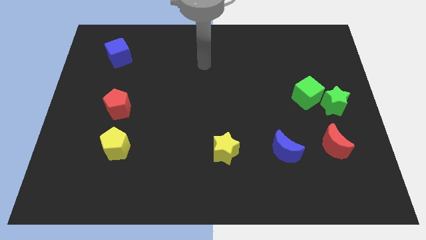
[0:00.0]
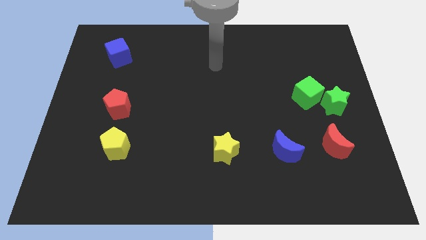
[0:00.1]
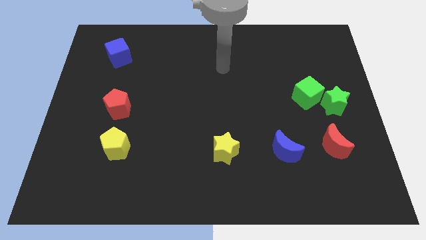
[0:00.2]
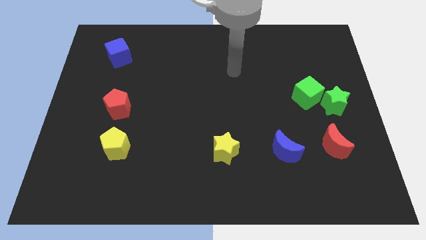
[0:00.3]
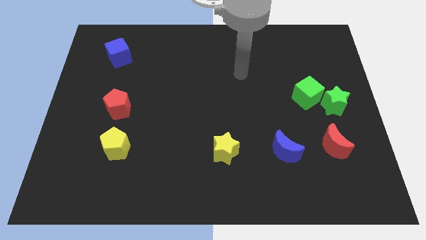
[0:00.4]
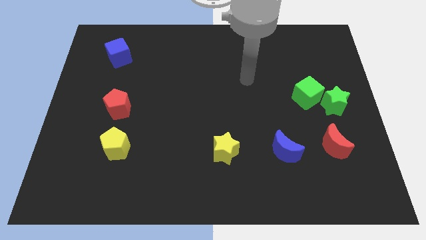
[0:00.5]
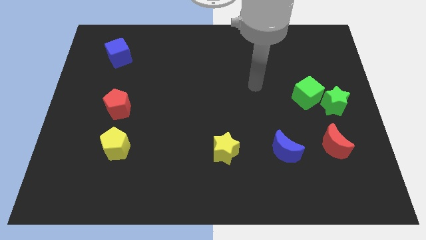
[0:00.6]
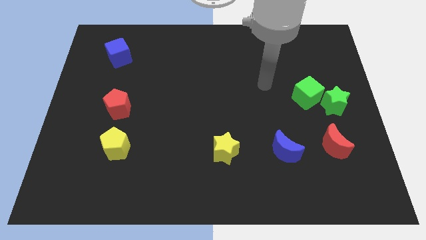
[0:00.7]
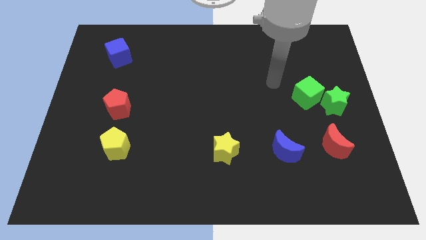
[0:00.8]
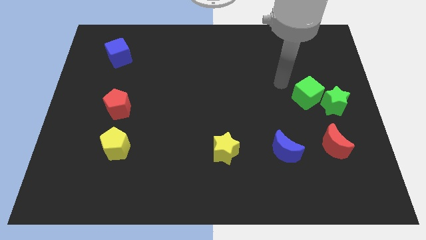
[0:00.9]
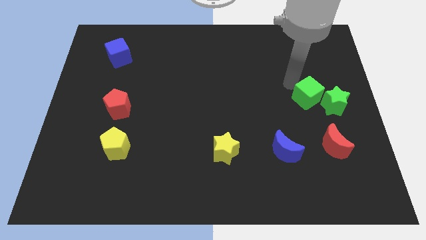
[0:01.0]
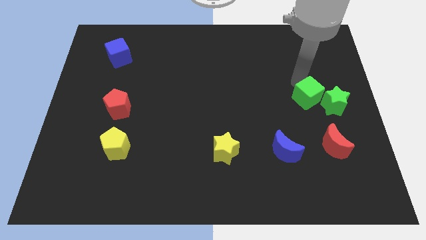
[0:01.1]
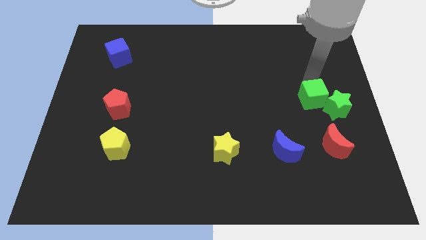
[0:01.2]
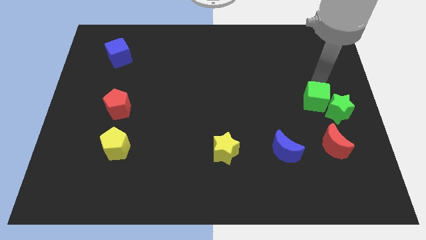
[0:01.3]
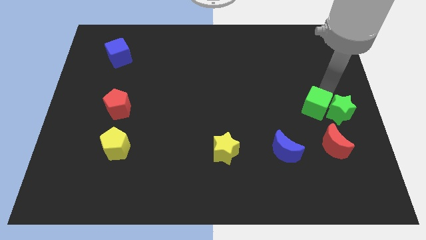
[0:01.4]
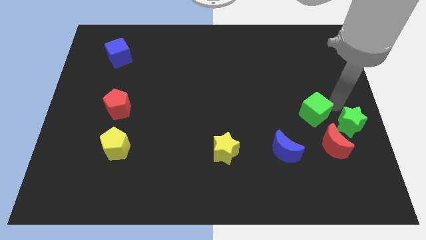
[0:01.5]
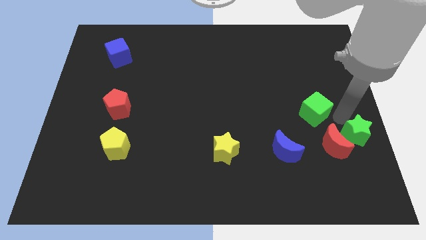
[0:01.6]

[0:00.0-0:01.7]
move the green cube away from the green star

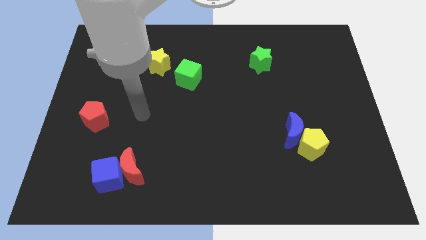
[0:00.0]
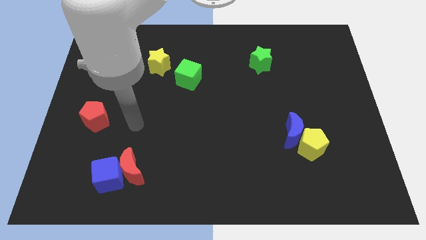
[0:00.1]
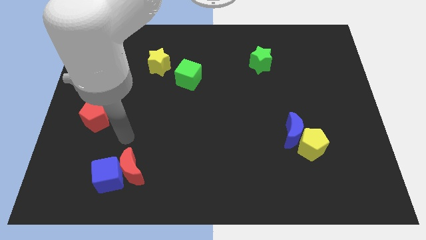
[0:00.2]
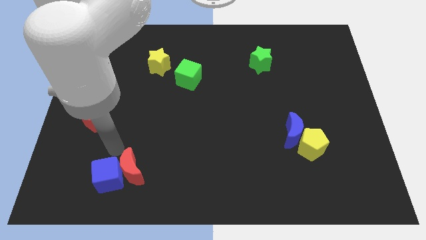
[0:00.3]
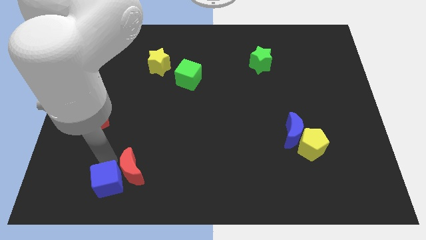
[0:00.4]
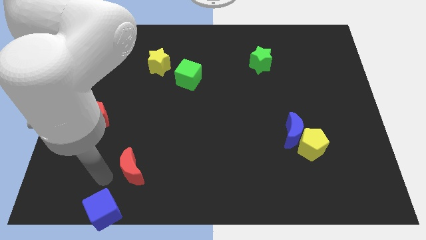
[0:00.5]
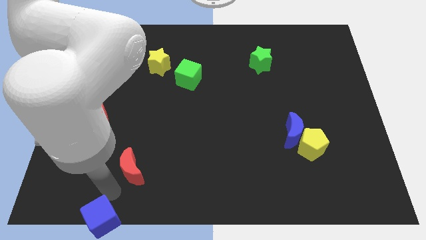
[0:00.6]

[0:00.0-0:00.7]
move the red moon away from the blue cube

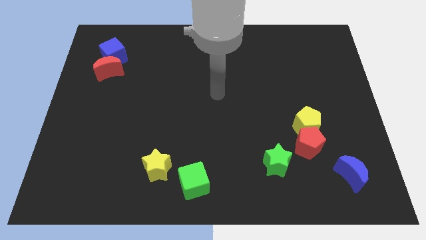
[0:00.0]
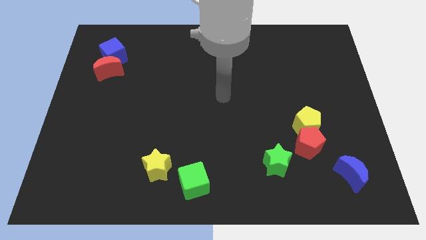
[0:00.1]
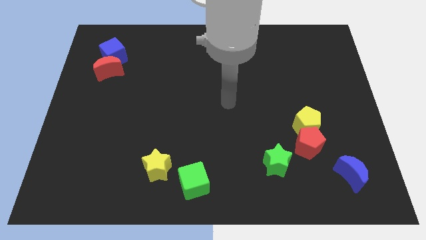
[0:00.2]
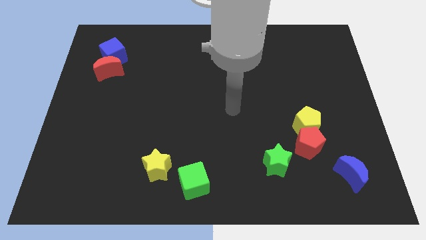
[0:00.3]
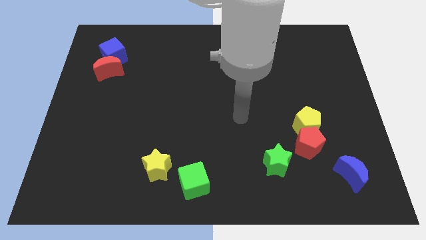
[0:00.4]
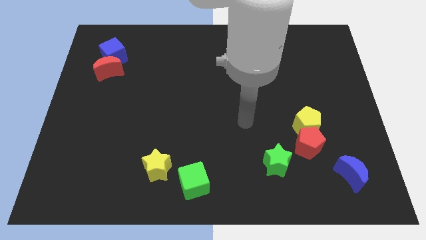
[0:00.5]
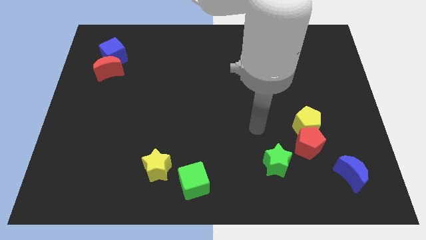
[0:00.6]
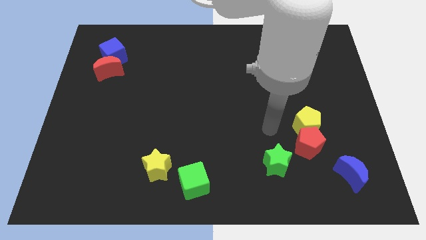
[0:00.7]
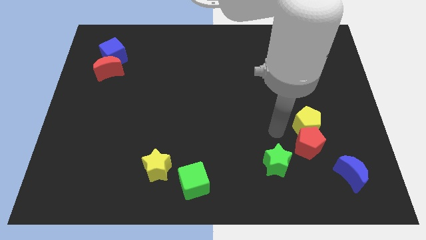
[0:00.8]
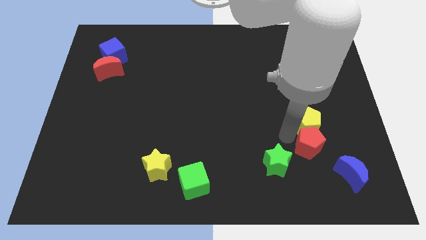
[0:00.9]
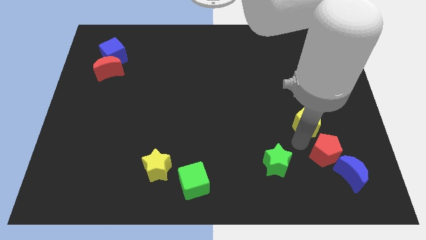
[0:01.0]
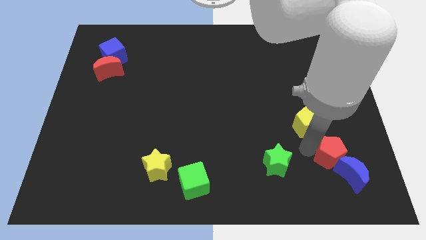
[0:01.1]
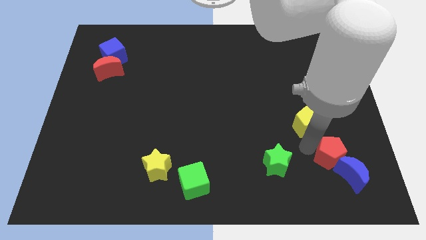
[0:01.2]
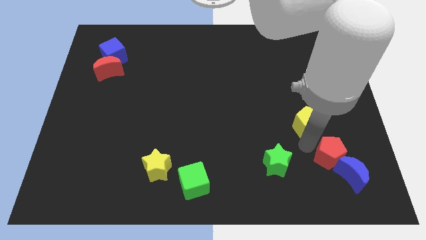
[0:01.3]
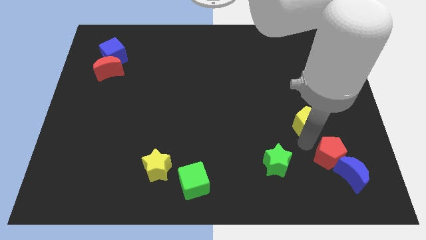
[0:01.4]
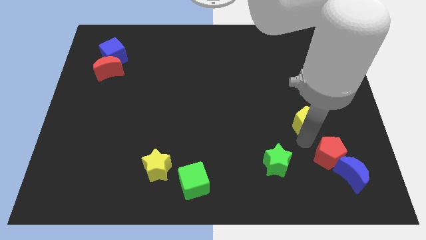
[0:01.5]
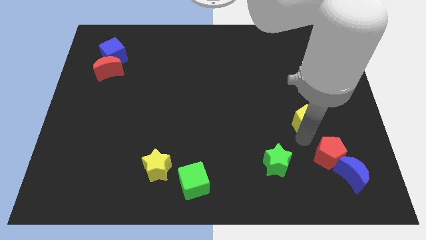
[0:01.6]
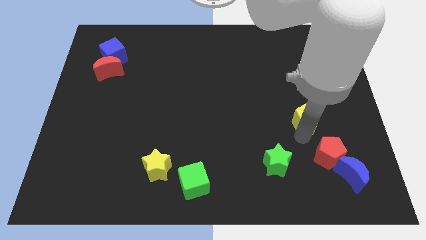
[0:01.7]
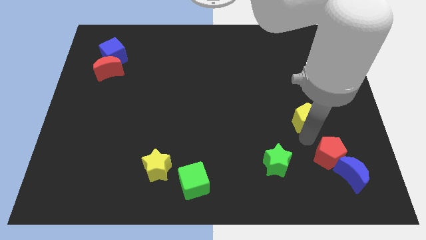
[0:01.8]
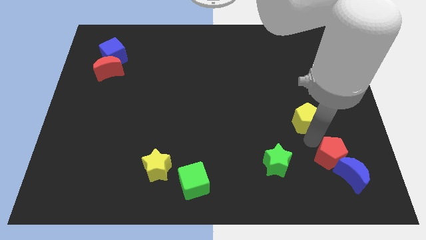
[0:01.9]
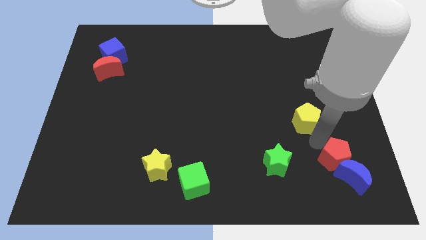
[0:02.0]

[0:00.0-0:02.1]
move the yellow pentagon away from the red pentagon

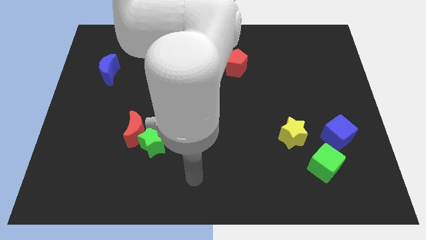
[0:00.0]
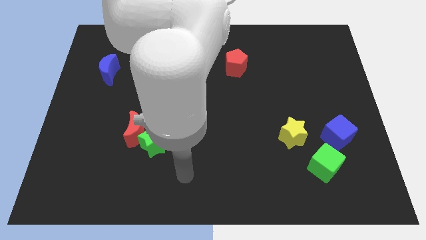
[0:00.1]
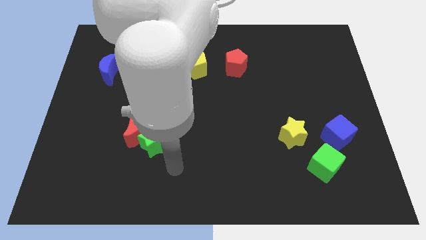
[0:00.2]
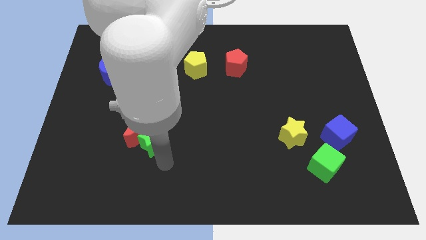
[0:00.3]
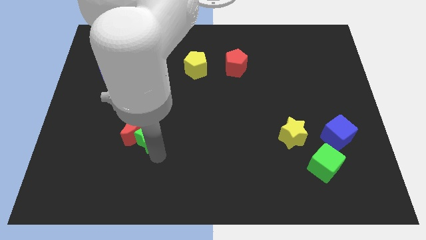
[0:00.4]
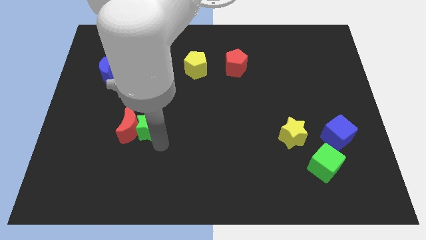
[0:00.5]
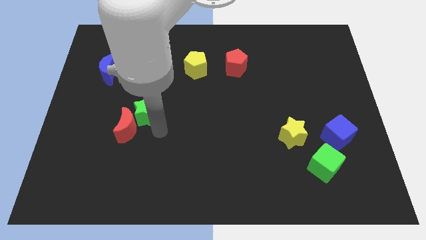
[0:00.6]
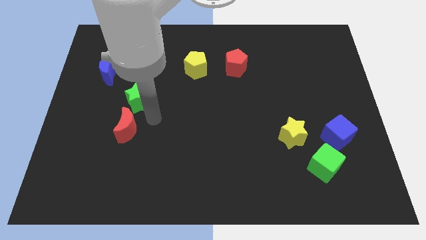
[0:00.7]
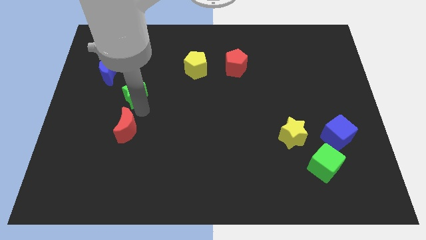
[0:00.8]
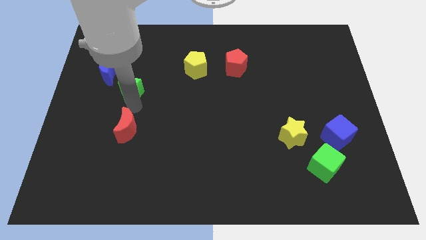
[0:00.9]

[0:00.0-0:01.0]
separate the red moon from the green star

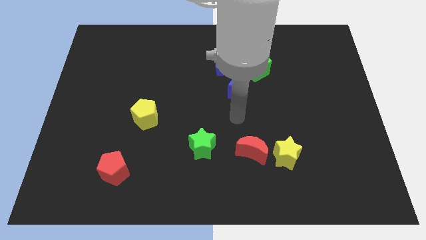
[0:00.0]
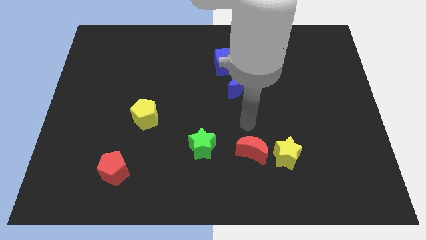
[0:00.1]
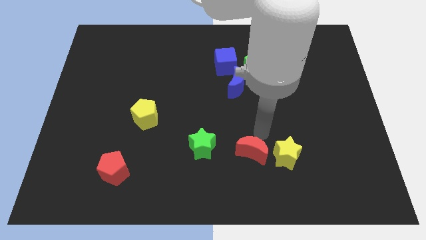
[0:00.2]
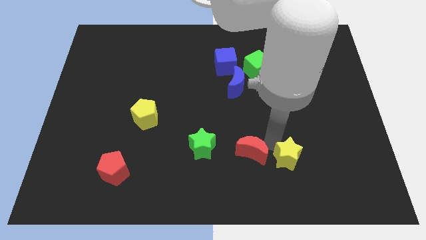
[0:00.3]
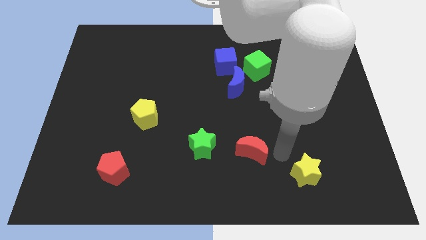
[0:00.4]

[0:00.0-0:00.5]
move the red moon away from the yellow star

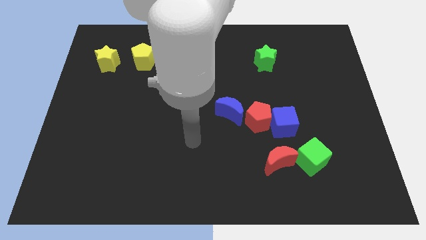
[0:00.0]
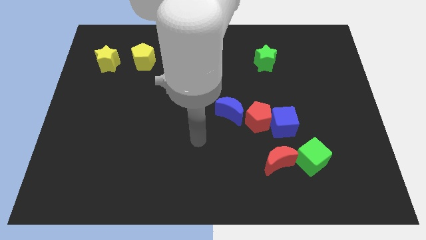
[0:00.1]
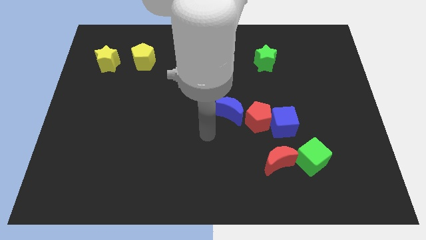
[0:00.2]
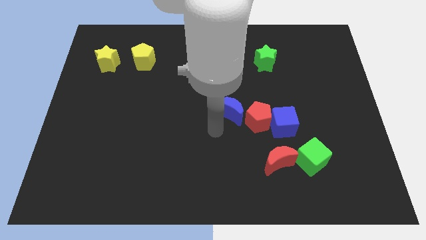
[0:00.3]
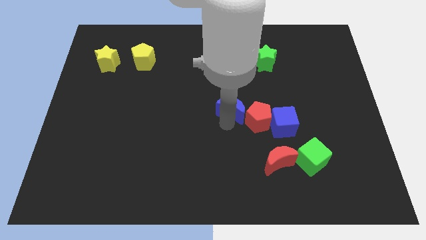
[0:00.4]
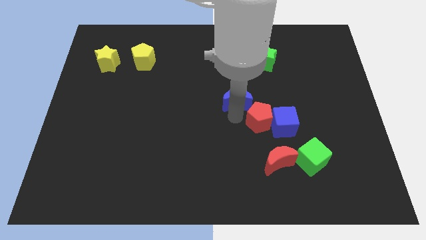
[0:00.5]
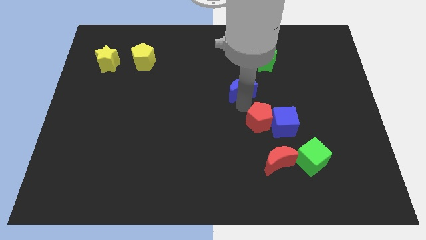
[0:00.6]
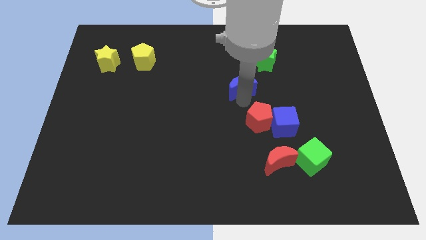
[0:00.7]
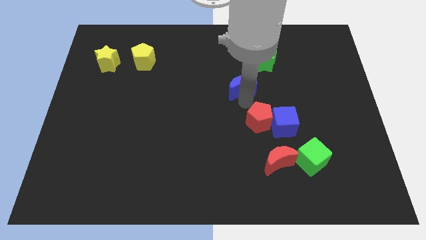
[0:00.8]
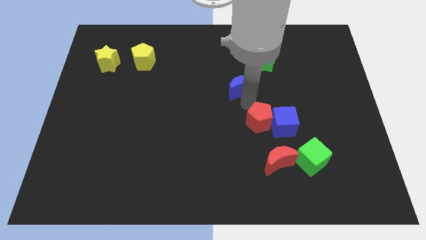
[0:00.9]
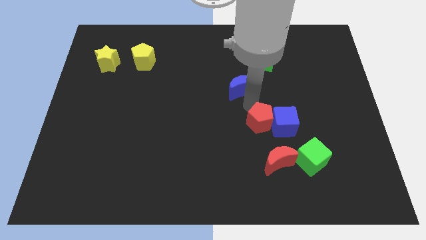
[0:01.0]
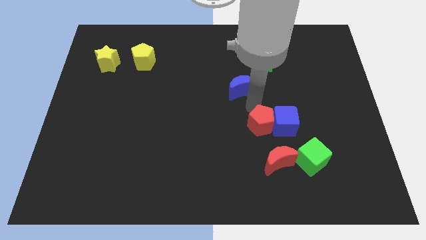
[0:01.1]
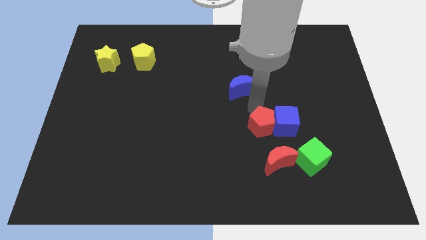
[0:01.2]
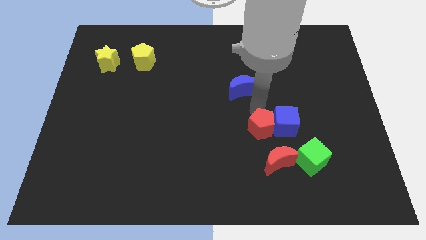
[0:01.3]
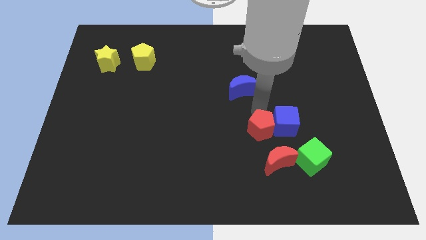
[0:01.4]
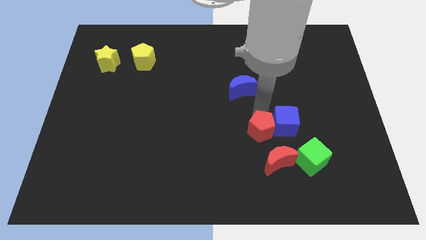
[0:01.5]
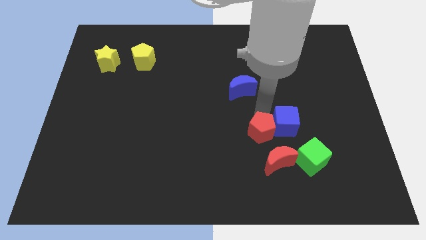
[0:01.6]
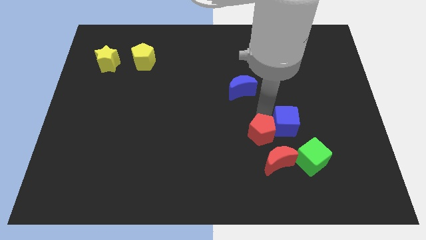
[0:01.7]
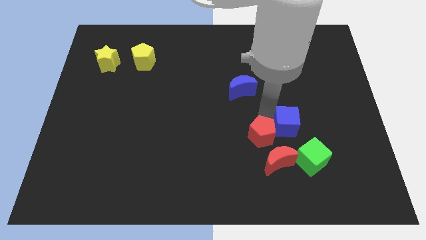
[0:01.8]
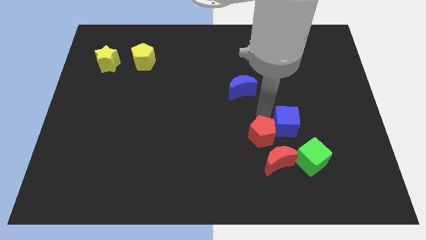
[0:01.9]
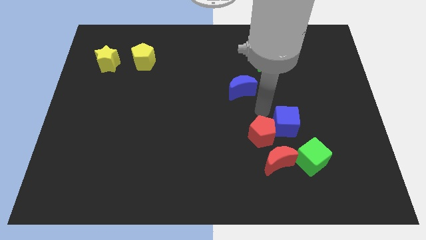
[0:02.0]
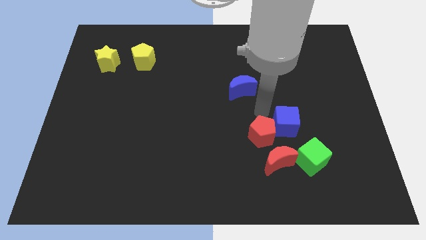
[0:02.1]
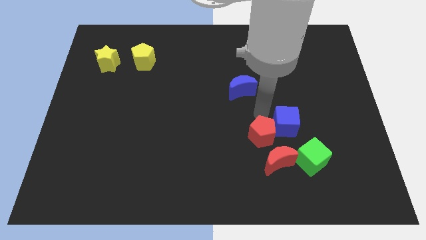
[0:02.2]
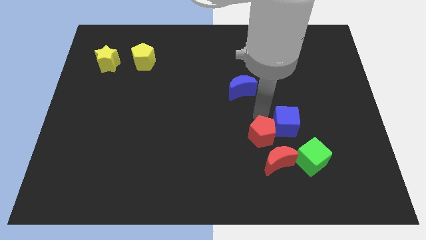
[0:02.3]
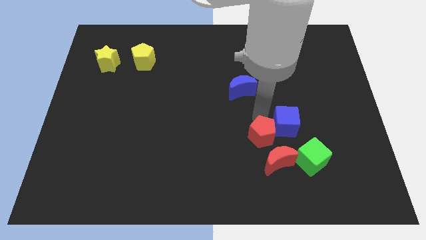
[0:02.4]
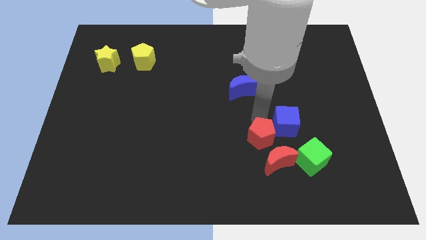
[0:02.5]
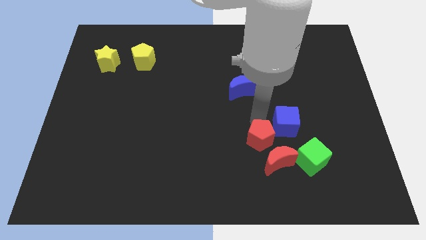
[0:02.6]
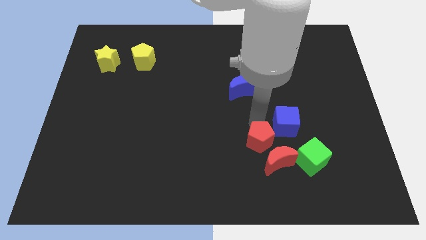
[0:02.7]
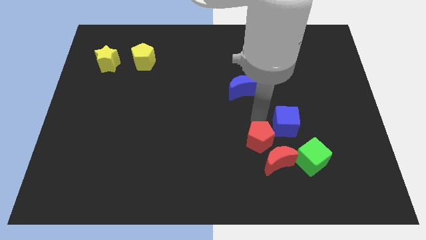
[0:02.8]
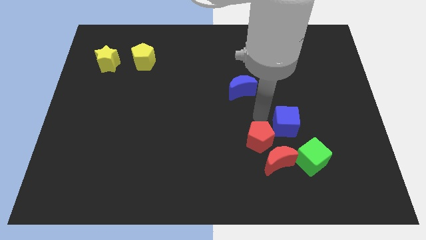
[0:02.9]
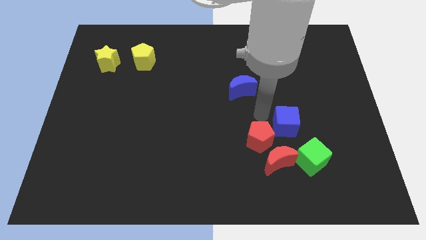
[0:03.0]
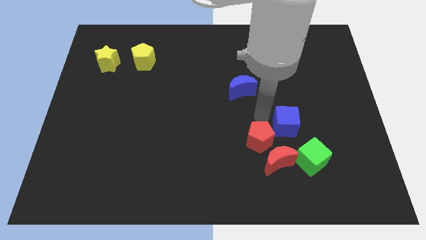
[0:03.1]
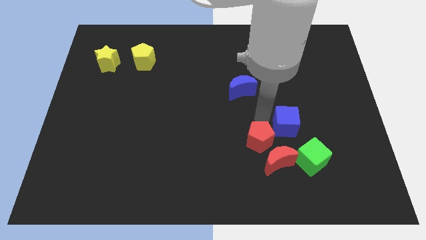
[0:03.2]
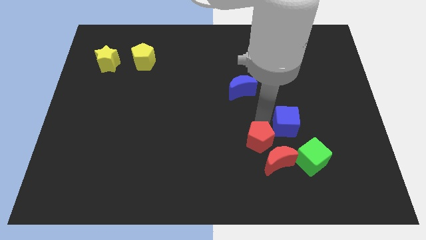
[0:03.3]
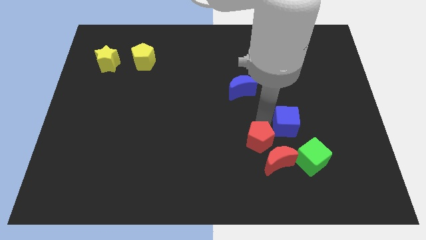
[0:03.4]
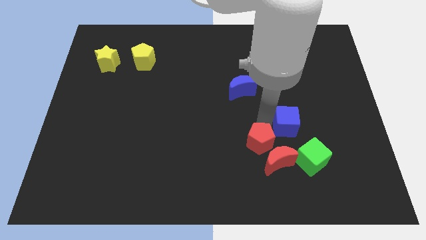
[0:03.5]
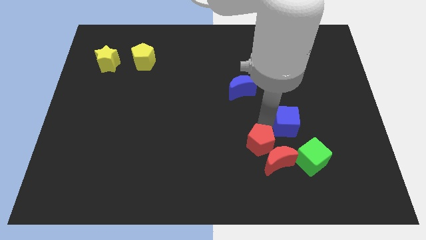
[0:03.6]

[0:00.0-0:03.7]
separate the red pentagon from the blue cube and blue moon
